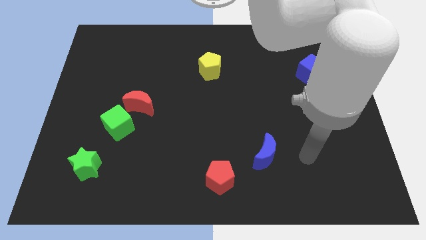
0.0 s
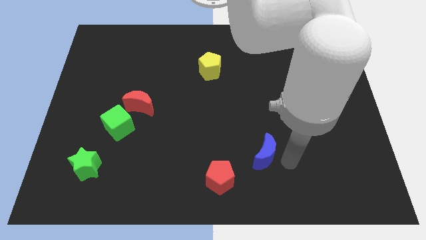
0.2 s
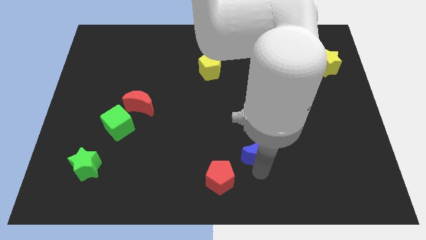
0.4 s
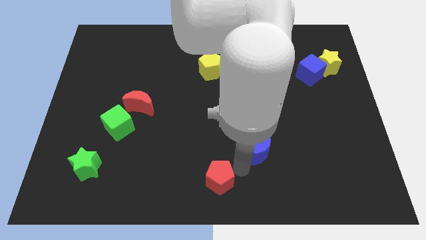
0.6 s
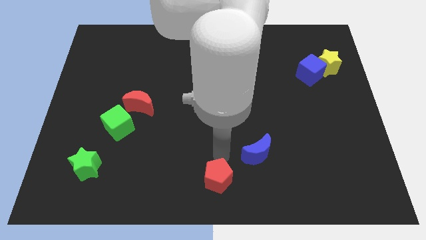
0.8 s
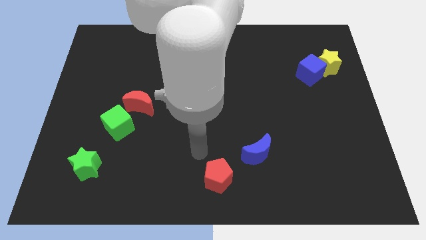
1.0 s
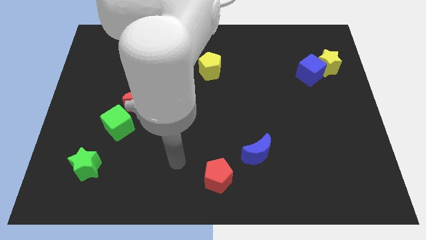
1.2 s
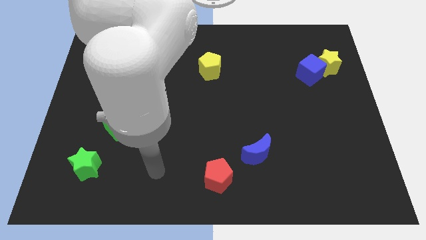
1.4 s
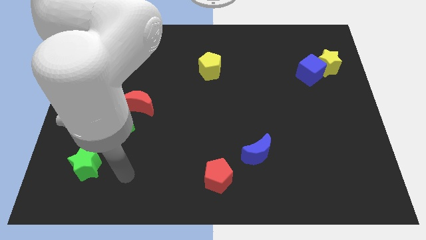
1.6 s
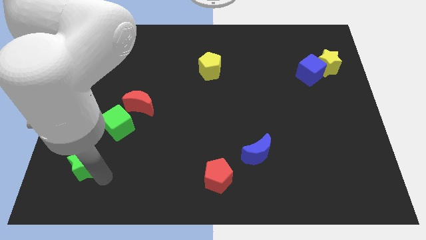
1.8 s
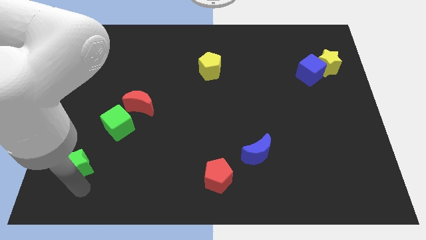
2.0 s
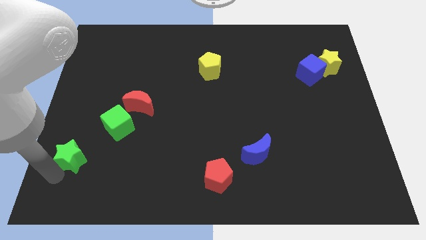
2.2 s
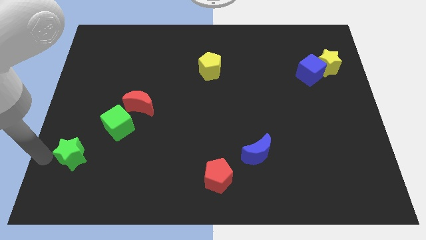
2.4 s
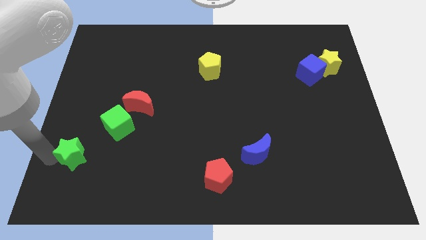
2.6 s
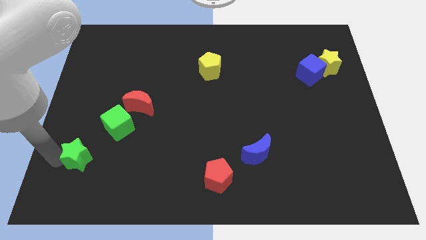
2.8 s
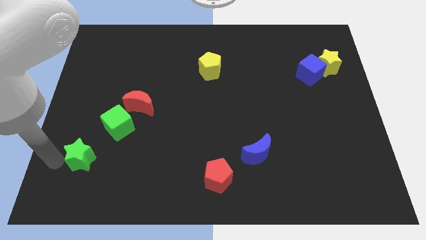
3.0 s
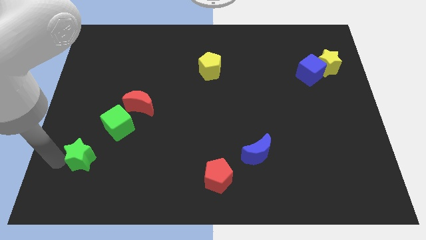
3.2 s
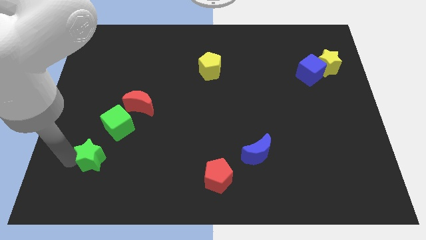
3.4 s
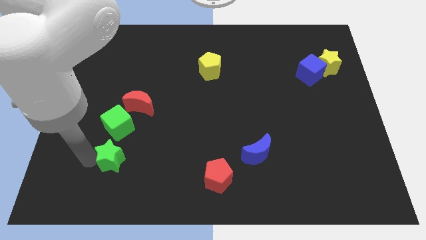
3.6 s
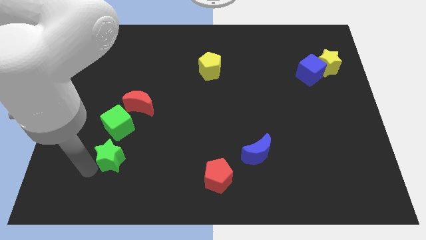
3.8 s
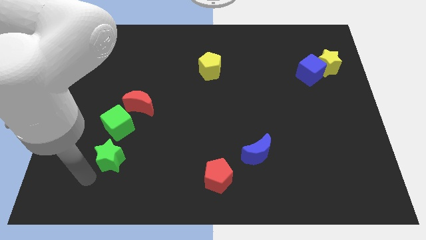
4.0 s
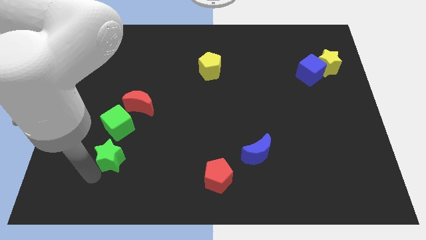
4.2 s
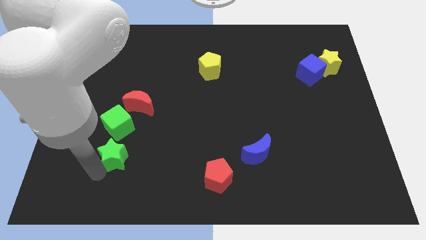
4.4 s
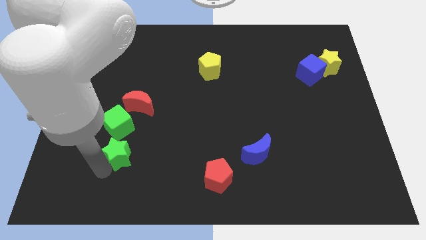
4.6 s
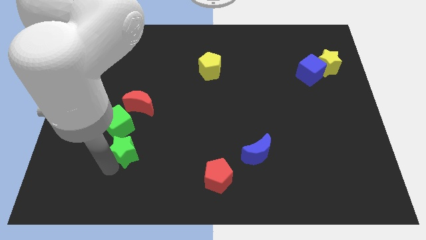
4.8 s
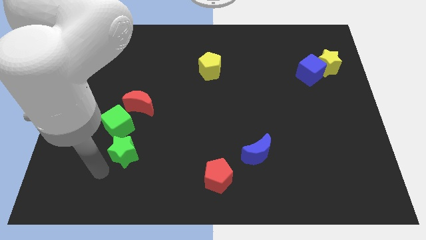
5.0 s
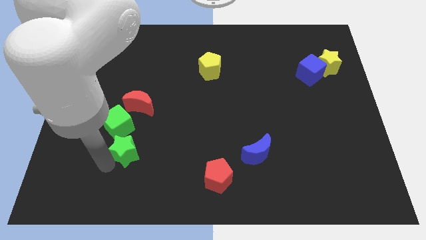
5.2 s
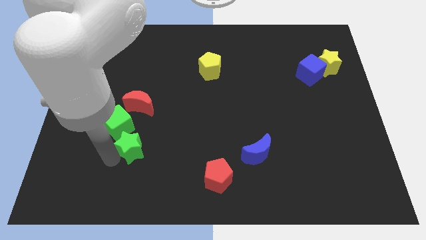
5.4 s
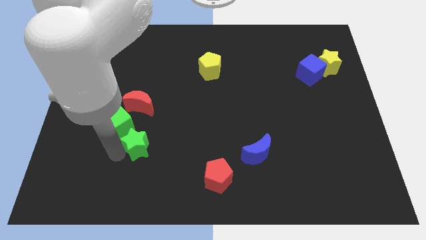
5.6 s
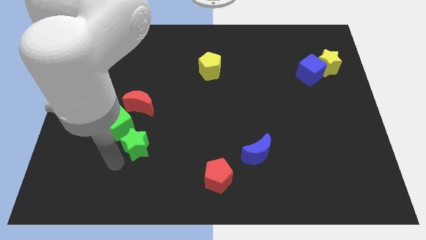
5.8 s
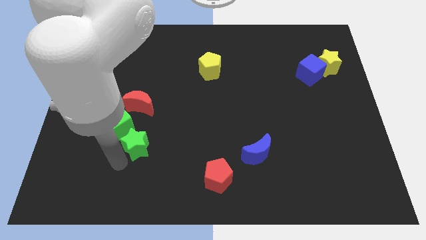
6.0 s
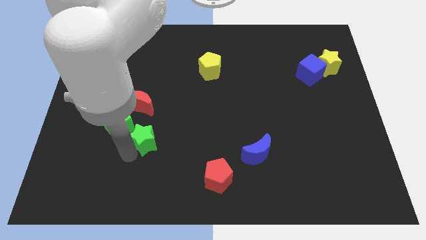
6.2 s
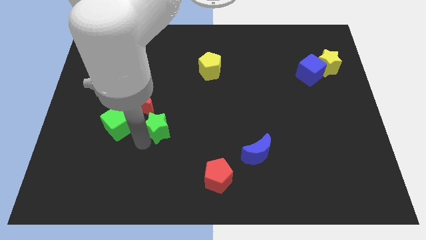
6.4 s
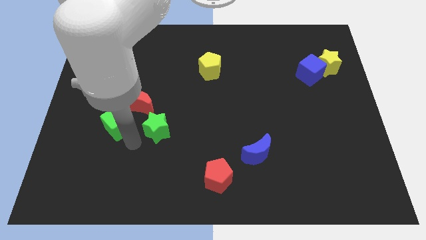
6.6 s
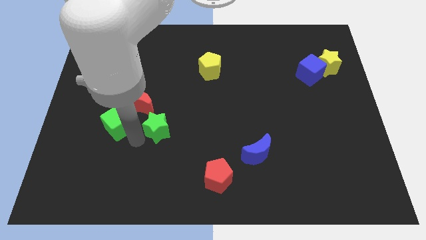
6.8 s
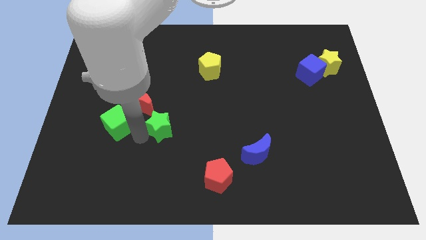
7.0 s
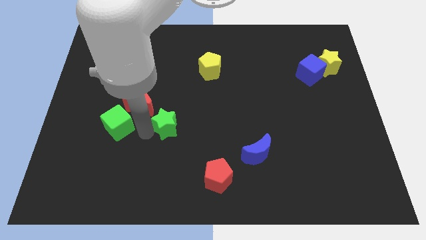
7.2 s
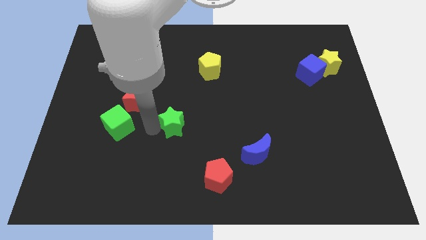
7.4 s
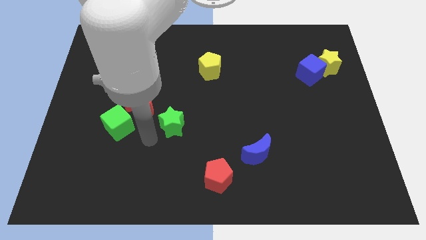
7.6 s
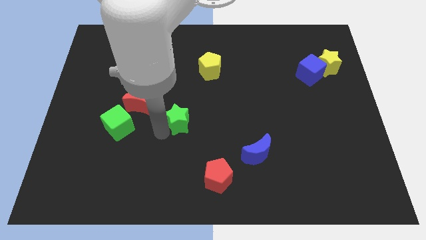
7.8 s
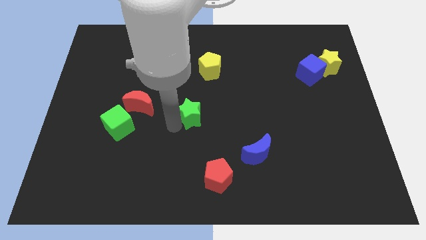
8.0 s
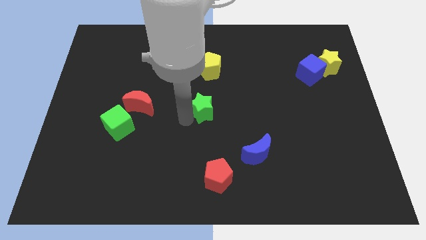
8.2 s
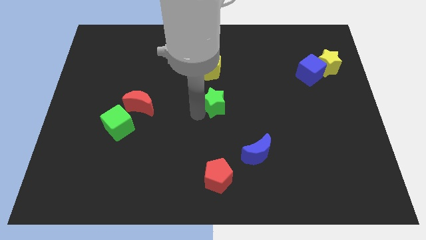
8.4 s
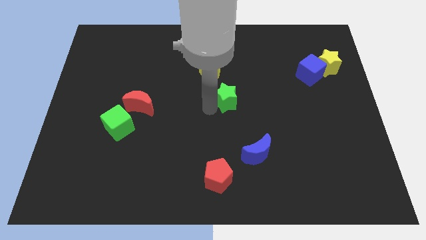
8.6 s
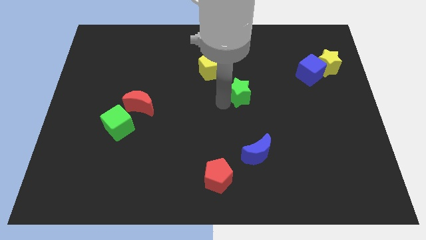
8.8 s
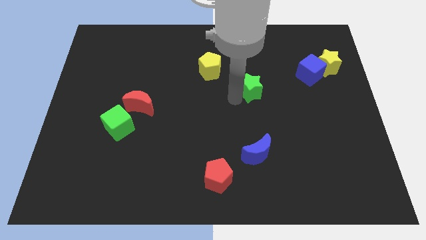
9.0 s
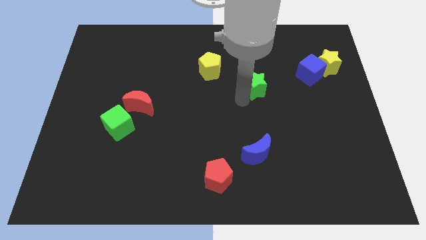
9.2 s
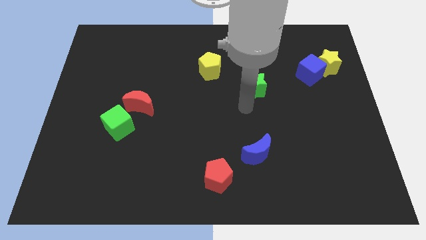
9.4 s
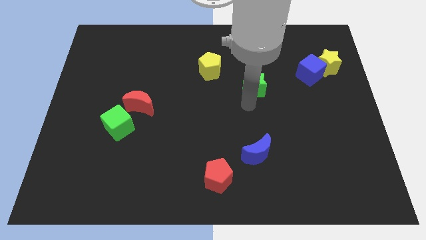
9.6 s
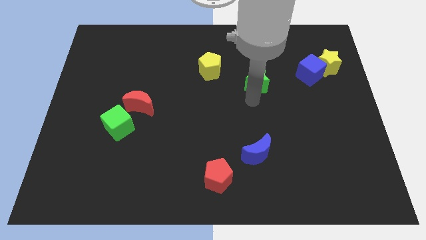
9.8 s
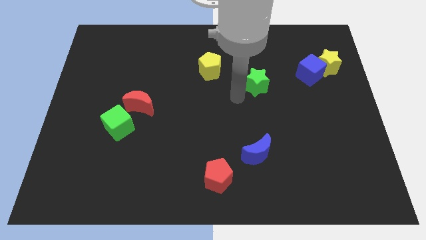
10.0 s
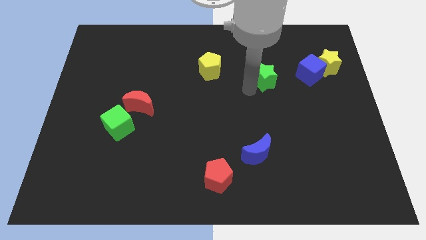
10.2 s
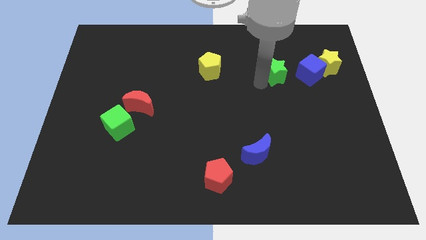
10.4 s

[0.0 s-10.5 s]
push the green star left of the yellow star
